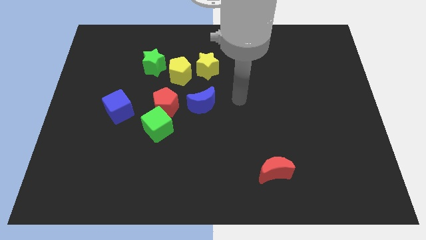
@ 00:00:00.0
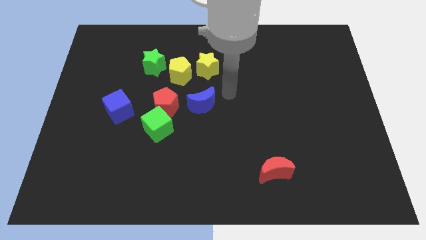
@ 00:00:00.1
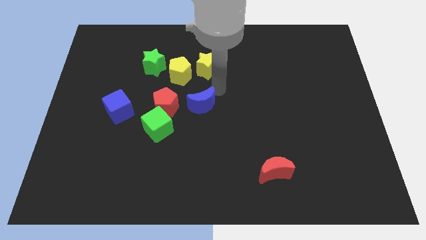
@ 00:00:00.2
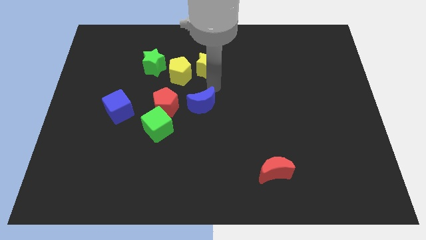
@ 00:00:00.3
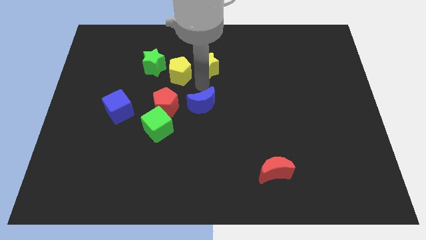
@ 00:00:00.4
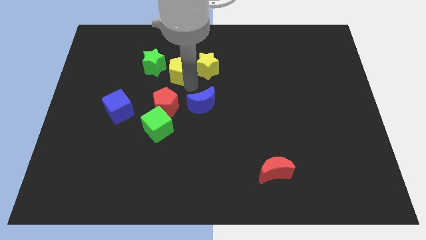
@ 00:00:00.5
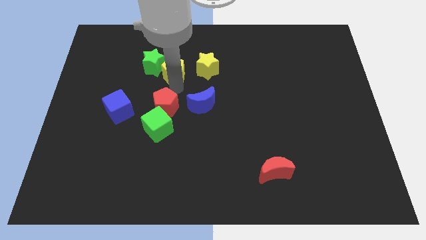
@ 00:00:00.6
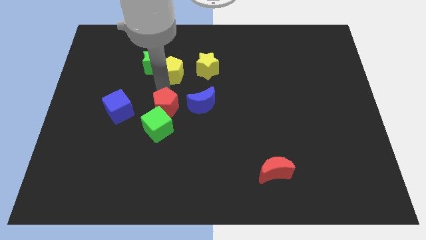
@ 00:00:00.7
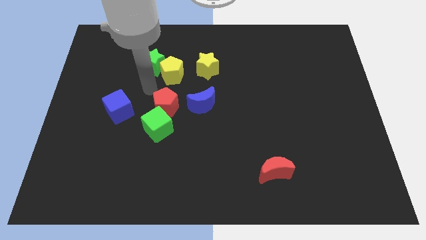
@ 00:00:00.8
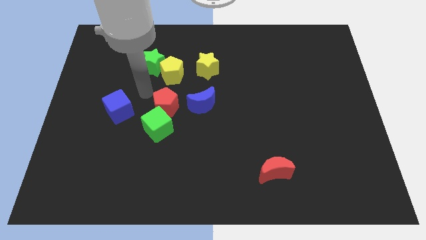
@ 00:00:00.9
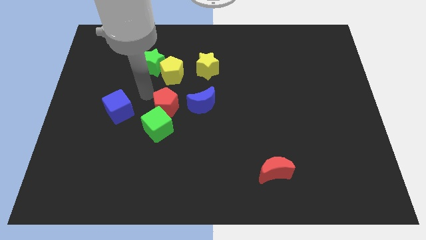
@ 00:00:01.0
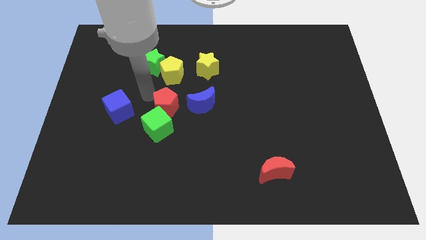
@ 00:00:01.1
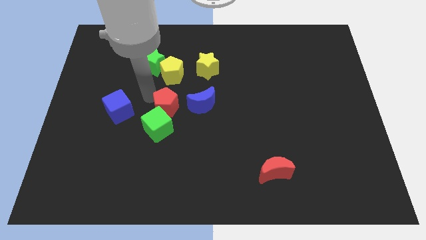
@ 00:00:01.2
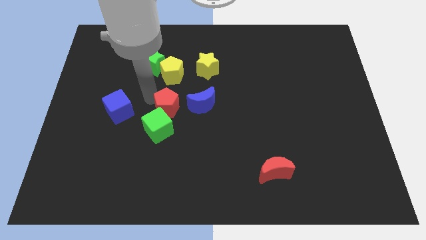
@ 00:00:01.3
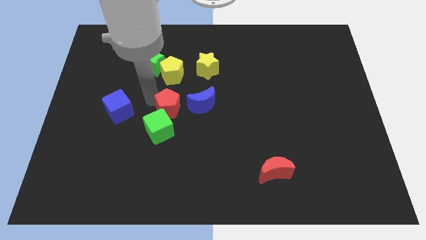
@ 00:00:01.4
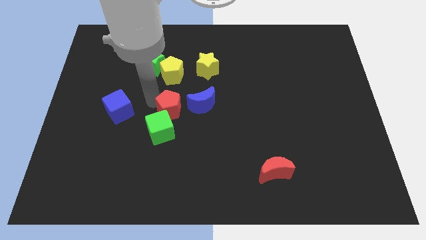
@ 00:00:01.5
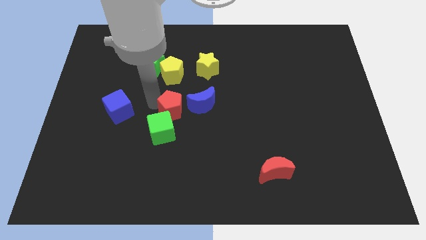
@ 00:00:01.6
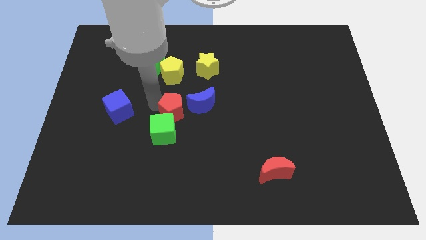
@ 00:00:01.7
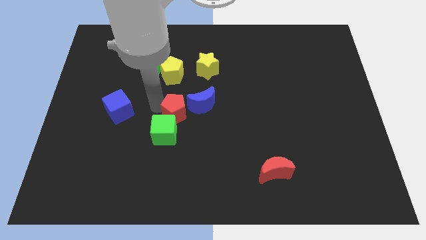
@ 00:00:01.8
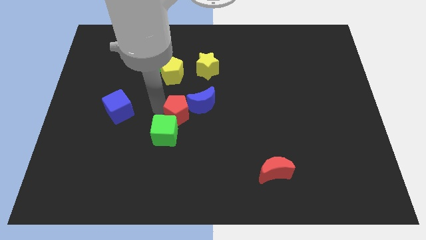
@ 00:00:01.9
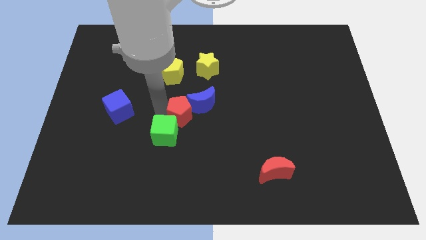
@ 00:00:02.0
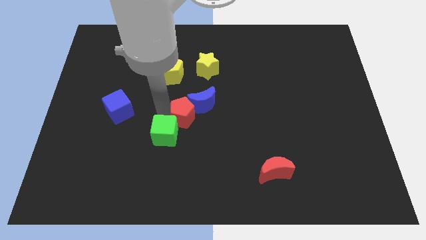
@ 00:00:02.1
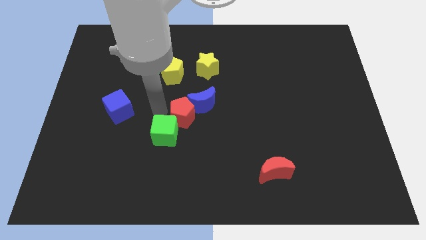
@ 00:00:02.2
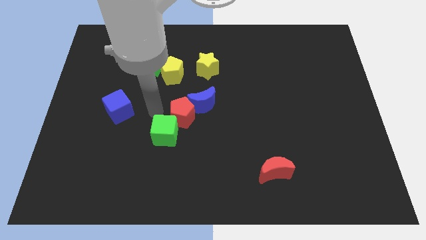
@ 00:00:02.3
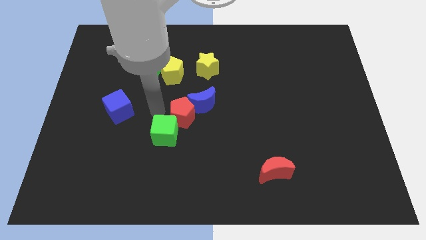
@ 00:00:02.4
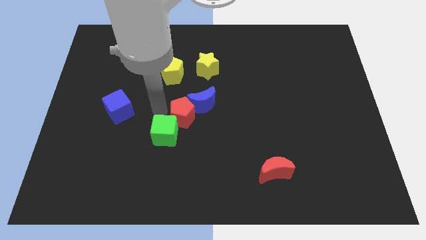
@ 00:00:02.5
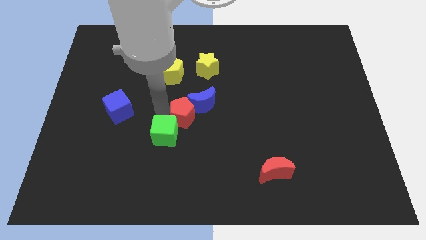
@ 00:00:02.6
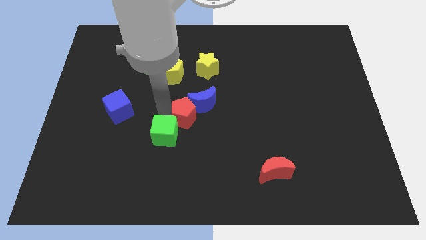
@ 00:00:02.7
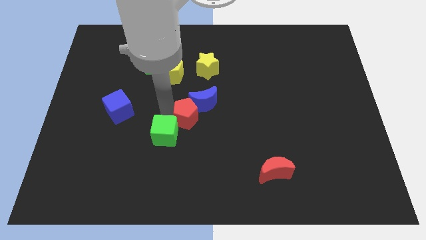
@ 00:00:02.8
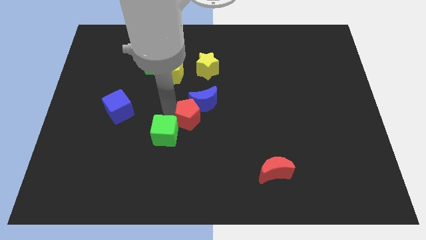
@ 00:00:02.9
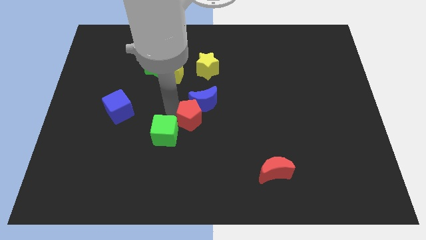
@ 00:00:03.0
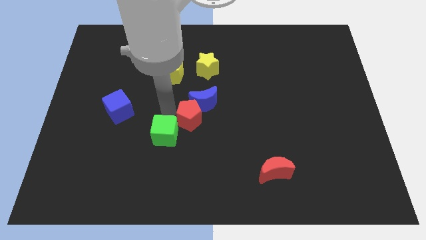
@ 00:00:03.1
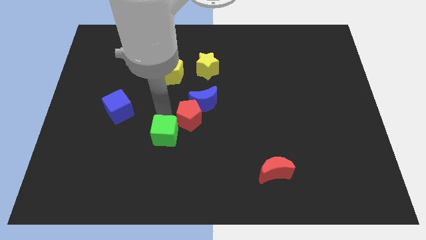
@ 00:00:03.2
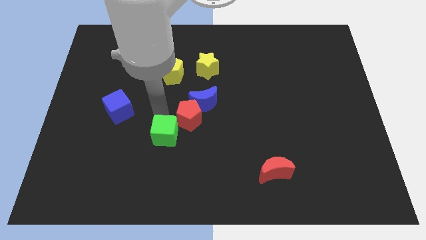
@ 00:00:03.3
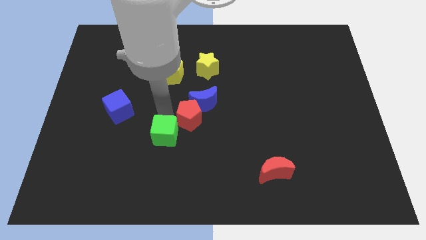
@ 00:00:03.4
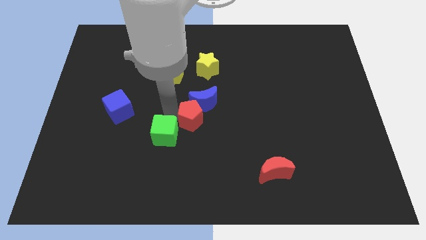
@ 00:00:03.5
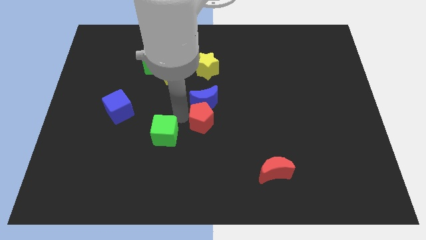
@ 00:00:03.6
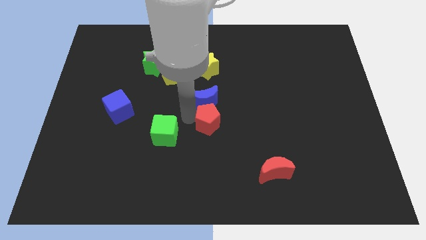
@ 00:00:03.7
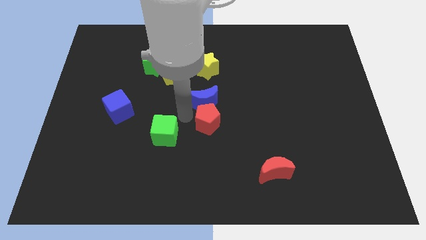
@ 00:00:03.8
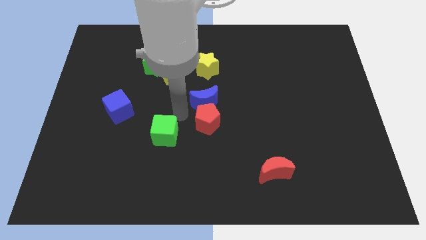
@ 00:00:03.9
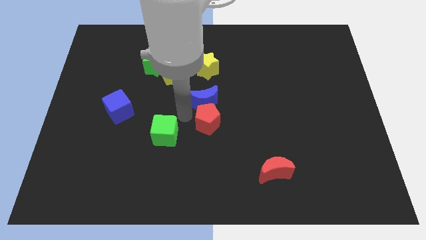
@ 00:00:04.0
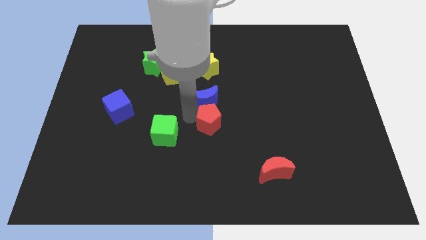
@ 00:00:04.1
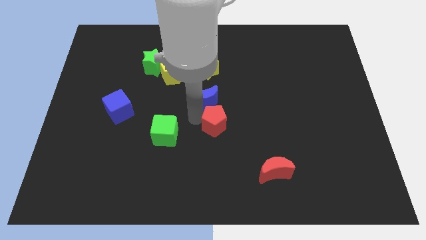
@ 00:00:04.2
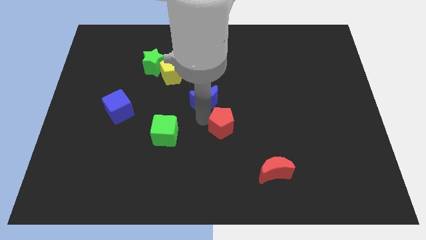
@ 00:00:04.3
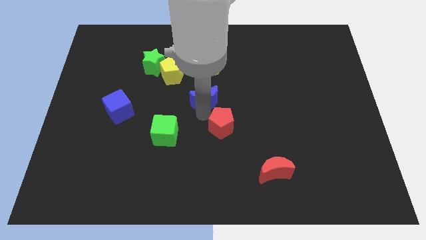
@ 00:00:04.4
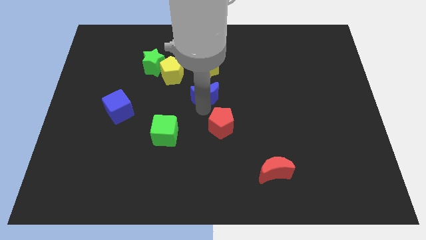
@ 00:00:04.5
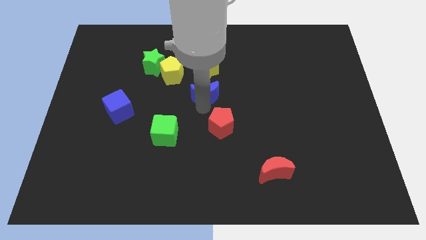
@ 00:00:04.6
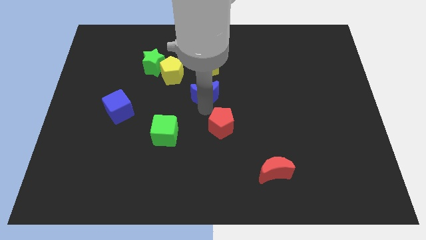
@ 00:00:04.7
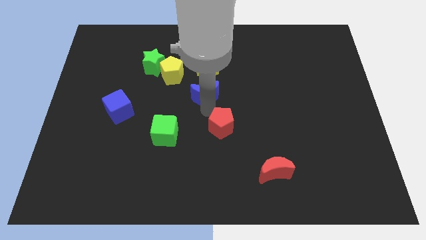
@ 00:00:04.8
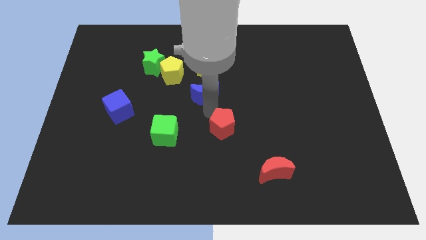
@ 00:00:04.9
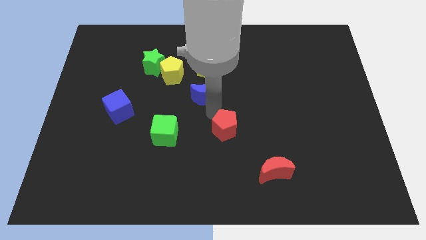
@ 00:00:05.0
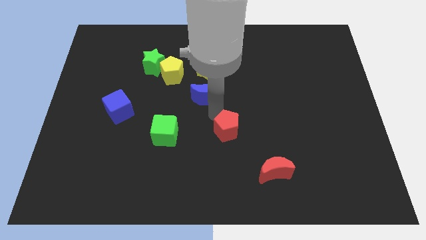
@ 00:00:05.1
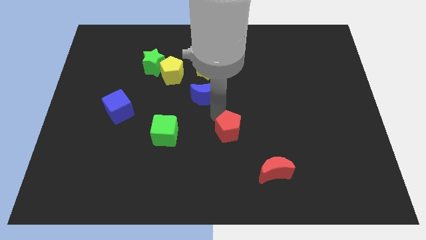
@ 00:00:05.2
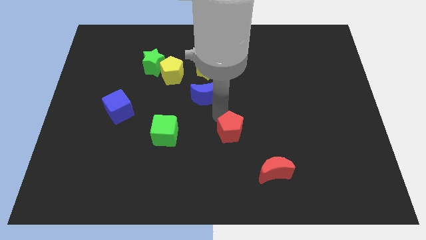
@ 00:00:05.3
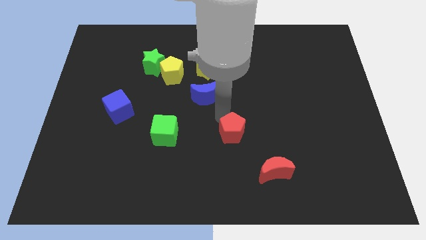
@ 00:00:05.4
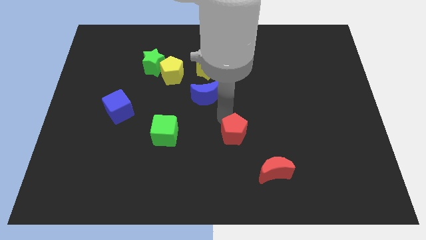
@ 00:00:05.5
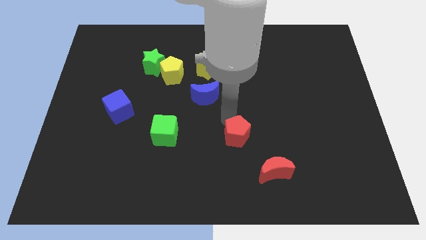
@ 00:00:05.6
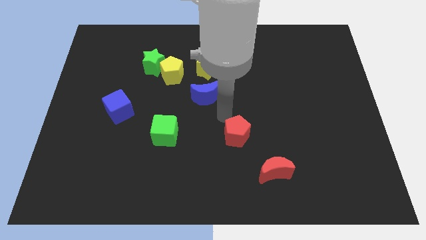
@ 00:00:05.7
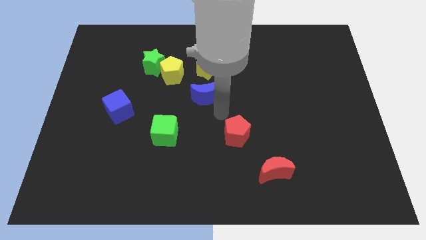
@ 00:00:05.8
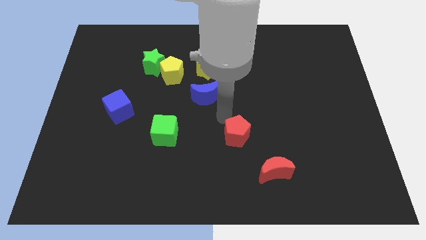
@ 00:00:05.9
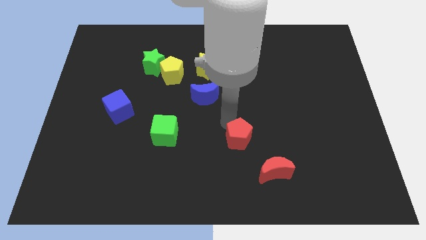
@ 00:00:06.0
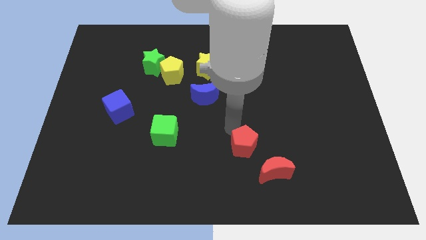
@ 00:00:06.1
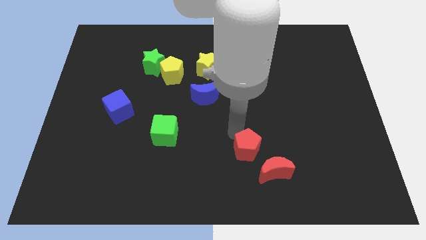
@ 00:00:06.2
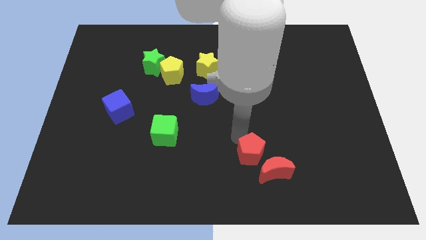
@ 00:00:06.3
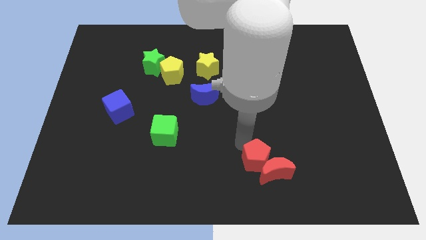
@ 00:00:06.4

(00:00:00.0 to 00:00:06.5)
put the red pentagon next to the red moon

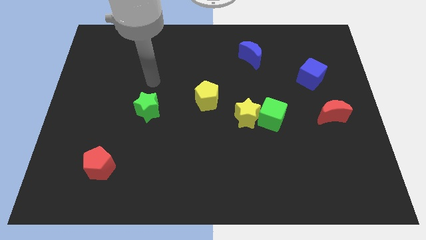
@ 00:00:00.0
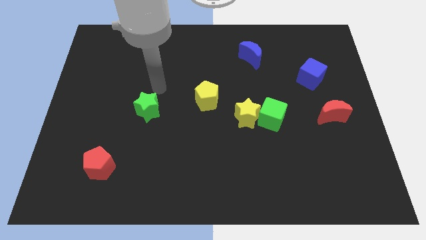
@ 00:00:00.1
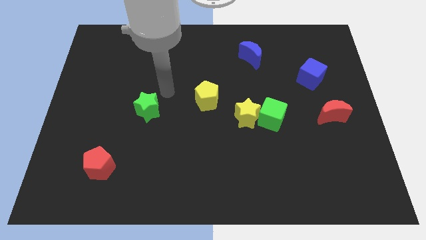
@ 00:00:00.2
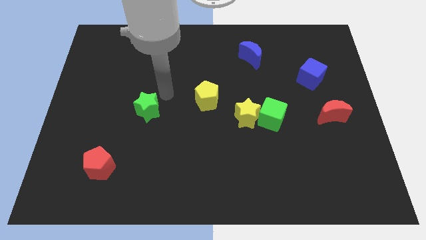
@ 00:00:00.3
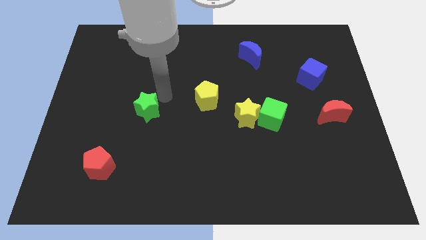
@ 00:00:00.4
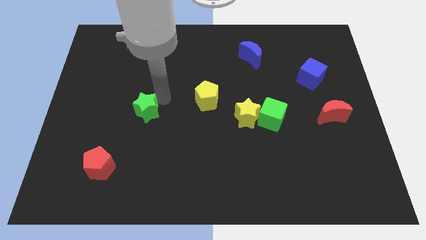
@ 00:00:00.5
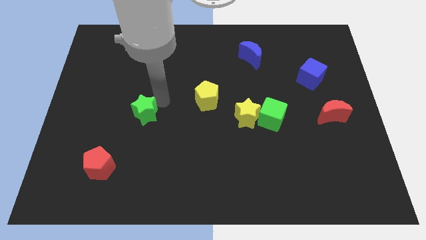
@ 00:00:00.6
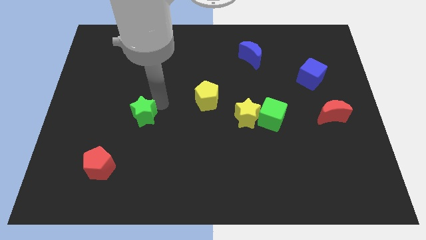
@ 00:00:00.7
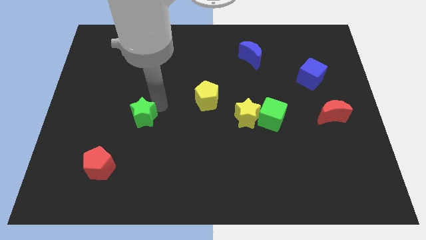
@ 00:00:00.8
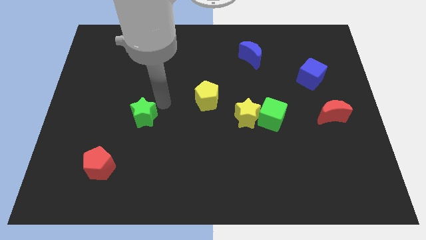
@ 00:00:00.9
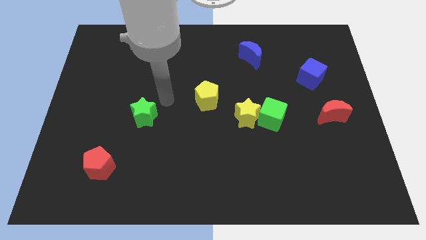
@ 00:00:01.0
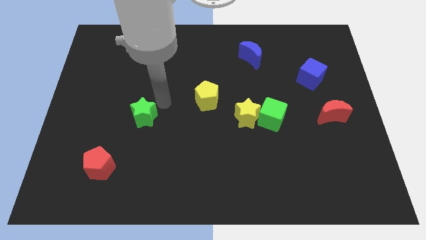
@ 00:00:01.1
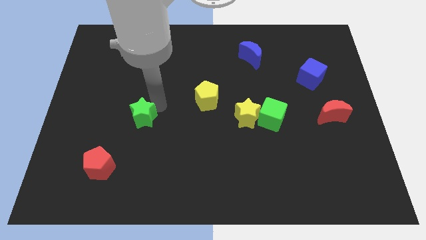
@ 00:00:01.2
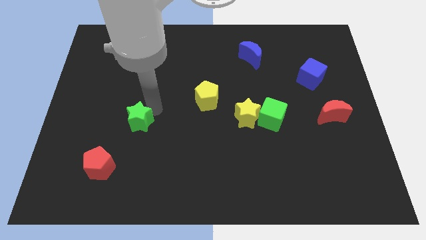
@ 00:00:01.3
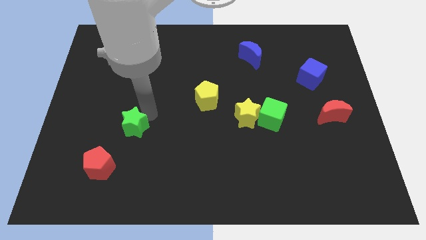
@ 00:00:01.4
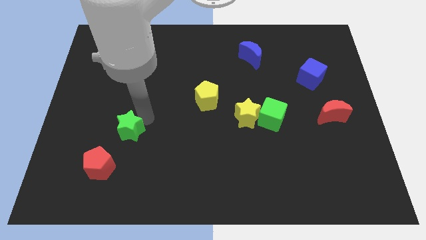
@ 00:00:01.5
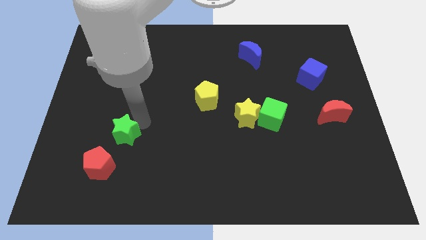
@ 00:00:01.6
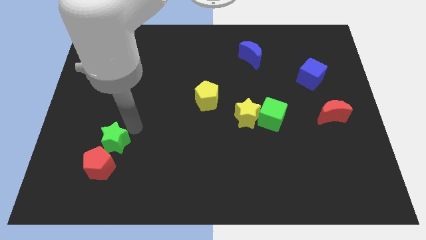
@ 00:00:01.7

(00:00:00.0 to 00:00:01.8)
slide the green star close to the red pentagon
